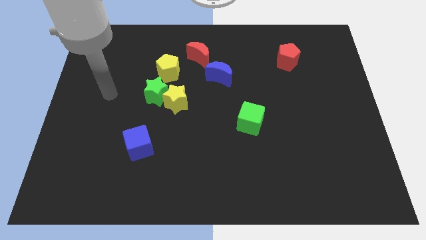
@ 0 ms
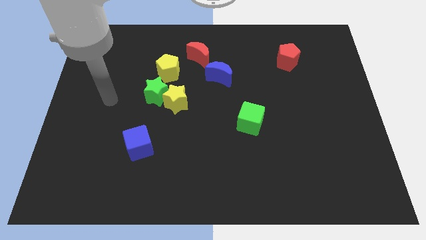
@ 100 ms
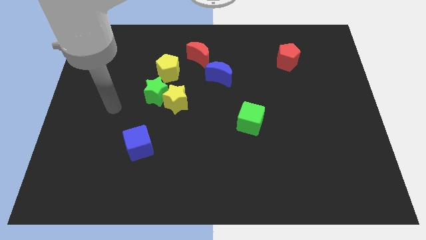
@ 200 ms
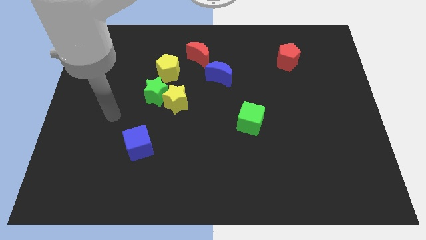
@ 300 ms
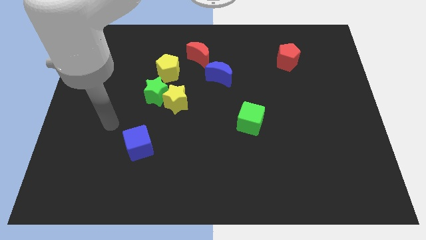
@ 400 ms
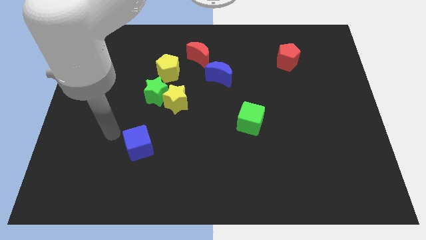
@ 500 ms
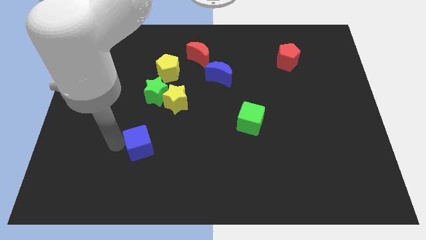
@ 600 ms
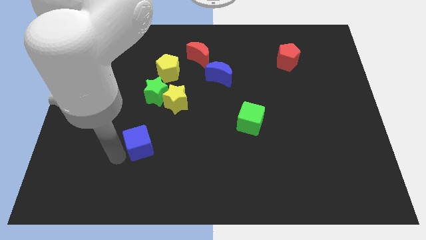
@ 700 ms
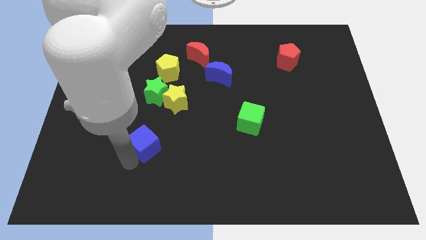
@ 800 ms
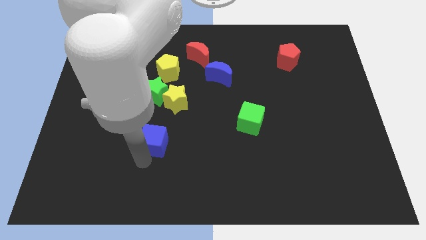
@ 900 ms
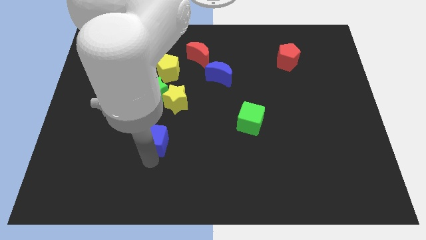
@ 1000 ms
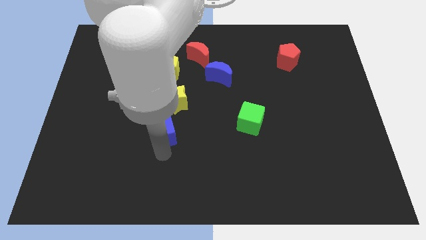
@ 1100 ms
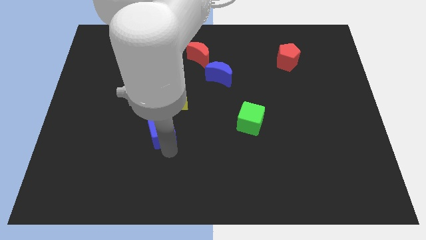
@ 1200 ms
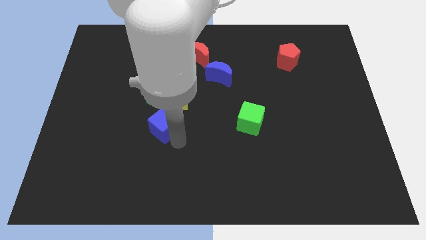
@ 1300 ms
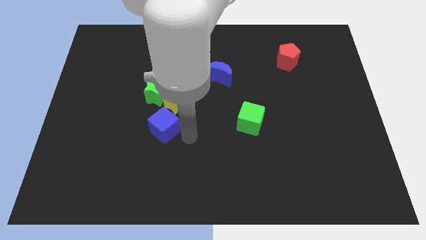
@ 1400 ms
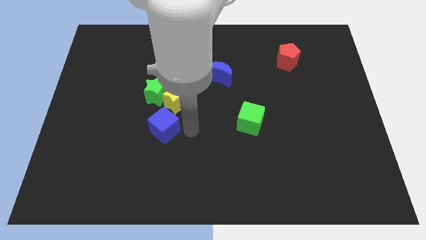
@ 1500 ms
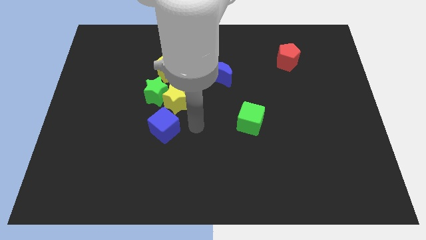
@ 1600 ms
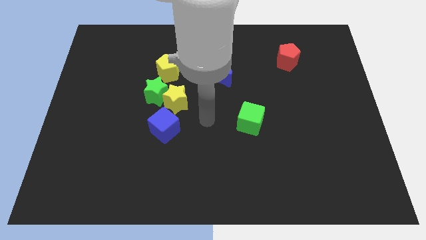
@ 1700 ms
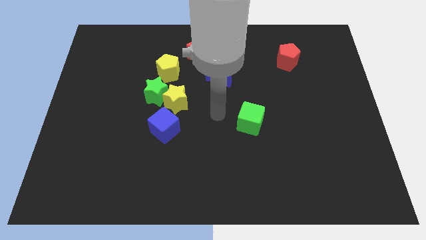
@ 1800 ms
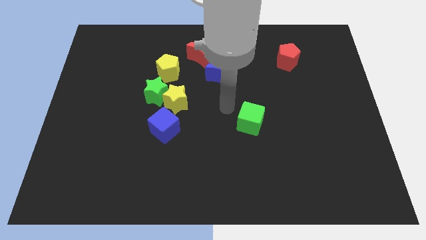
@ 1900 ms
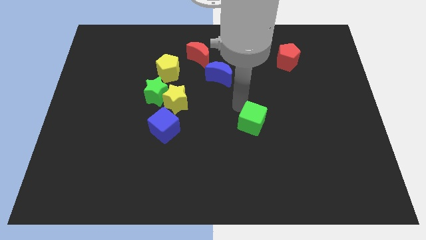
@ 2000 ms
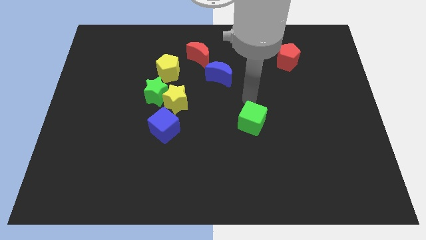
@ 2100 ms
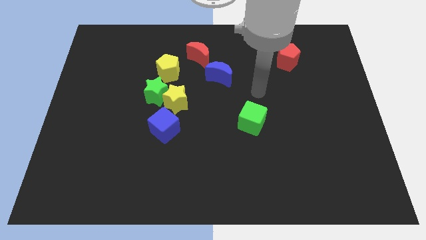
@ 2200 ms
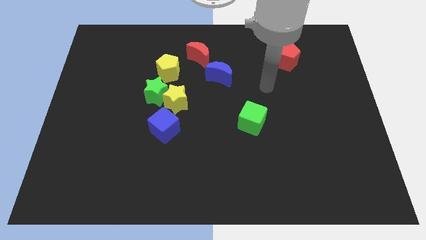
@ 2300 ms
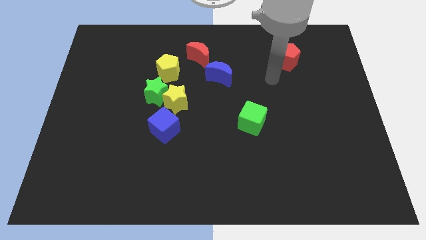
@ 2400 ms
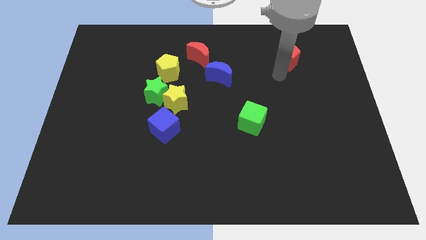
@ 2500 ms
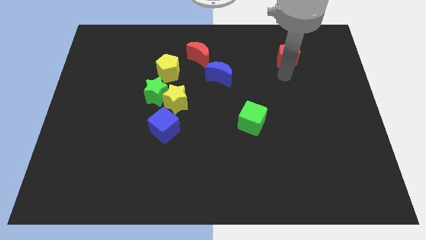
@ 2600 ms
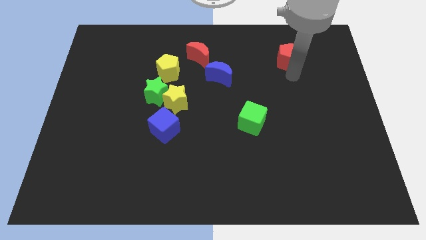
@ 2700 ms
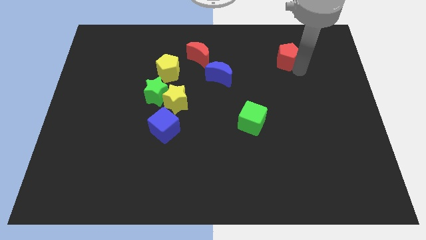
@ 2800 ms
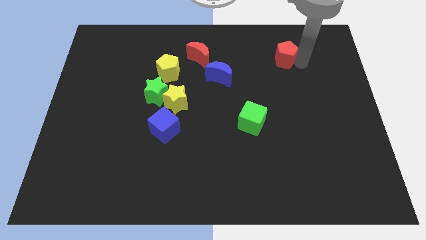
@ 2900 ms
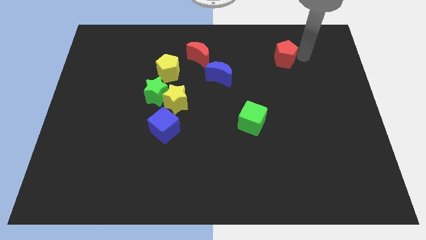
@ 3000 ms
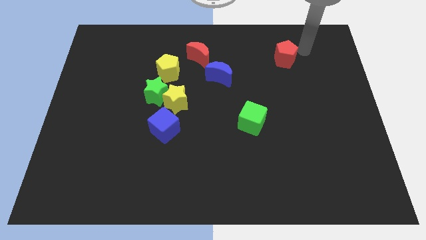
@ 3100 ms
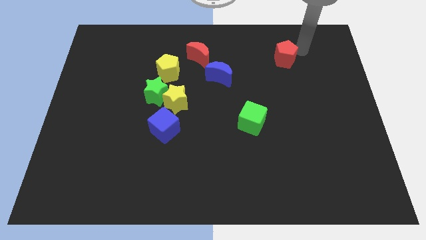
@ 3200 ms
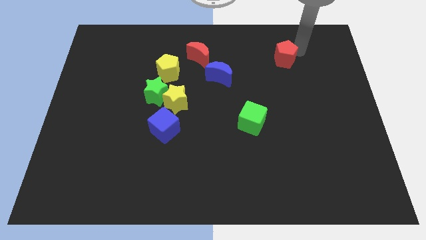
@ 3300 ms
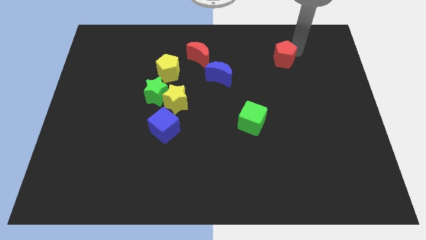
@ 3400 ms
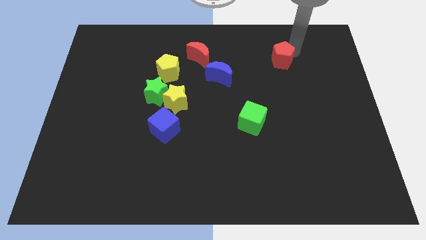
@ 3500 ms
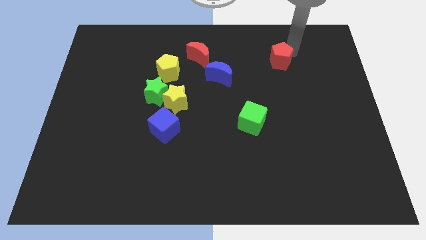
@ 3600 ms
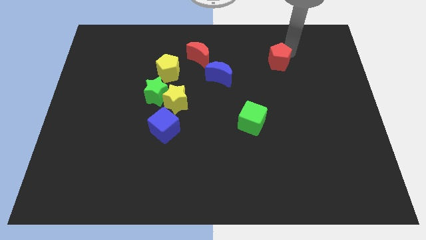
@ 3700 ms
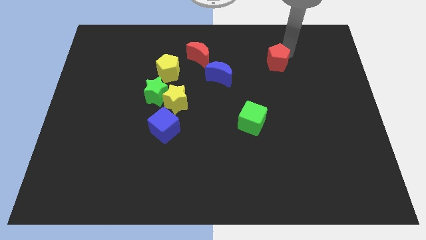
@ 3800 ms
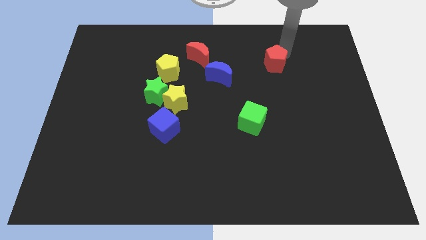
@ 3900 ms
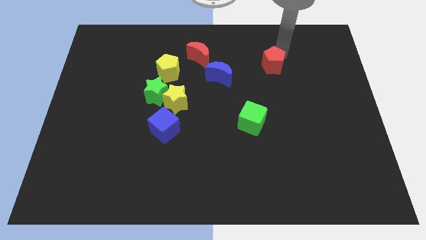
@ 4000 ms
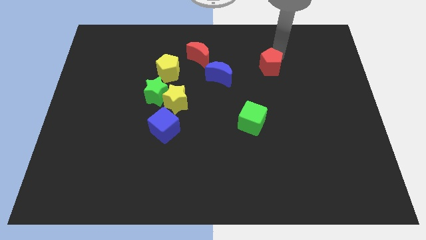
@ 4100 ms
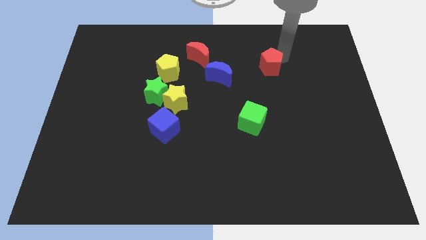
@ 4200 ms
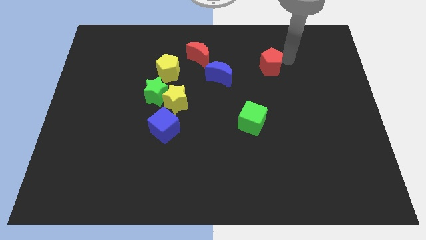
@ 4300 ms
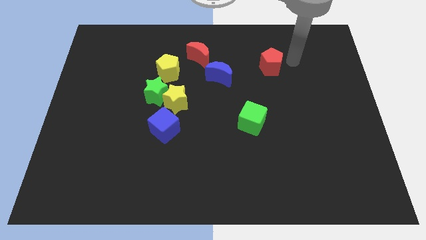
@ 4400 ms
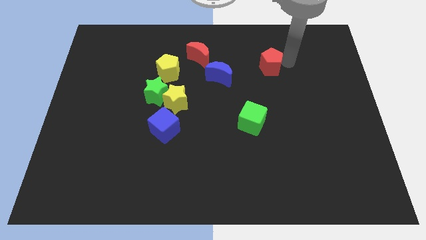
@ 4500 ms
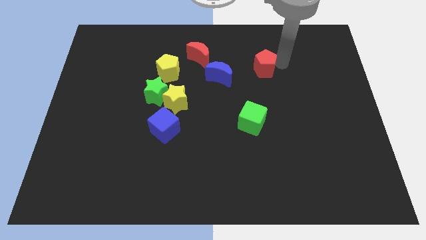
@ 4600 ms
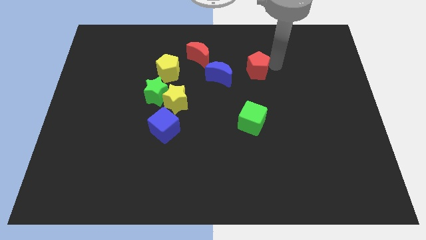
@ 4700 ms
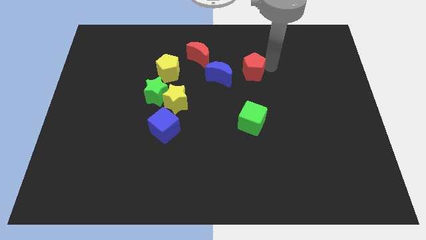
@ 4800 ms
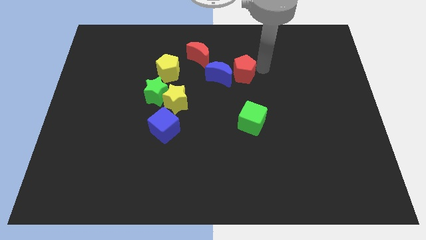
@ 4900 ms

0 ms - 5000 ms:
slide the red pentagon close to the blue moon

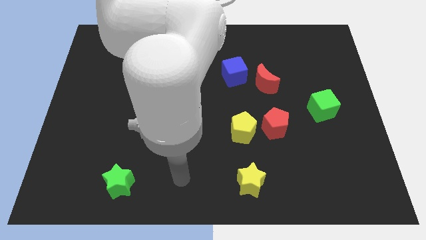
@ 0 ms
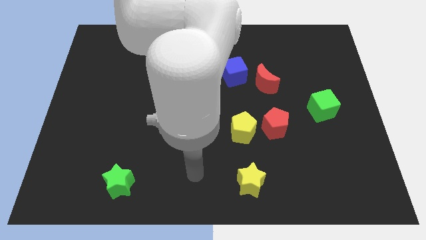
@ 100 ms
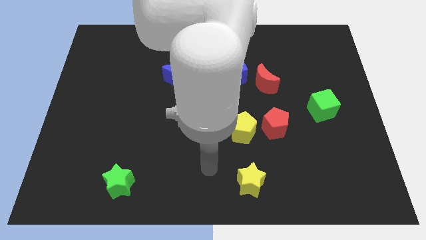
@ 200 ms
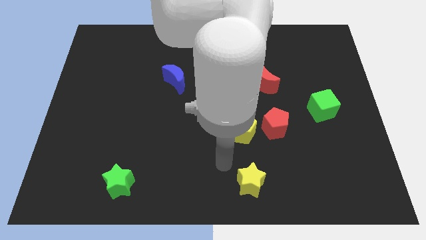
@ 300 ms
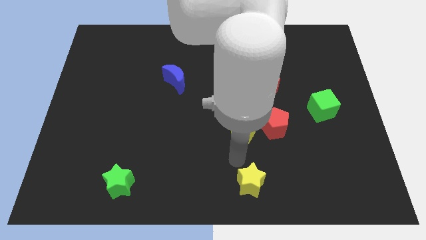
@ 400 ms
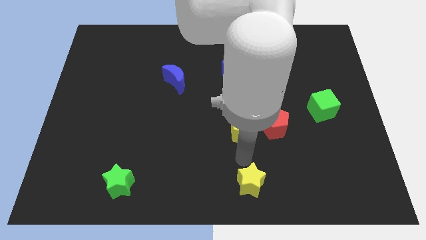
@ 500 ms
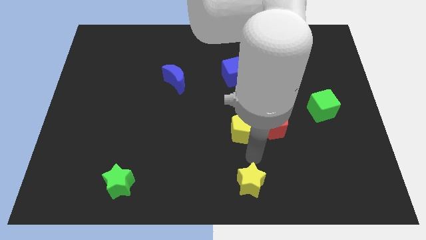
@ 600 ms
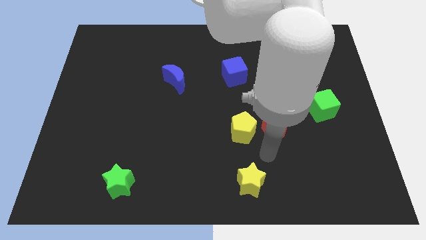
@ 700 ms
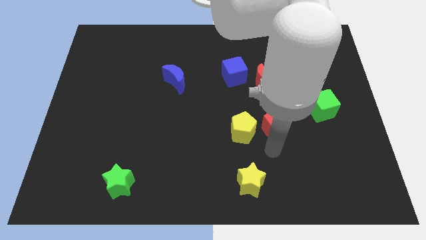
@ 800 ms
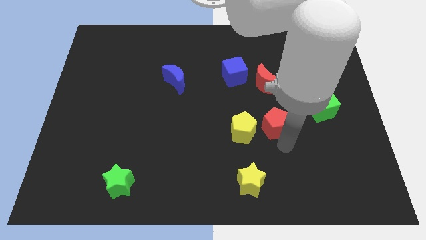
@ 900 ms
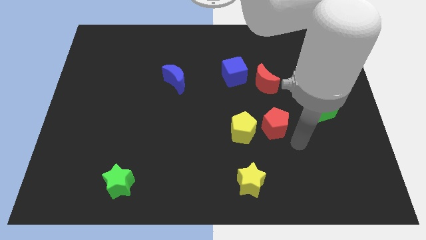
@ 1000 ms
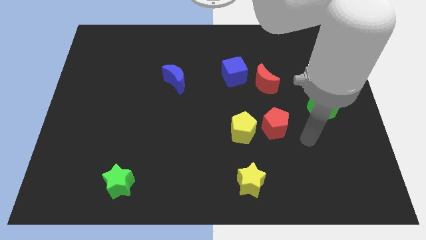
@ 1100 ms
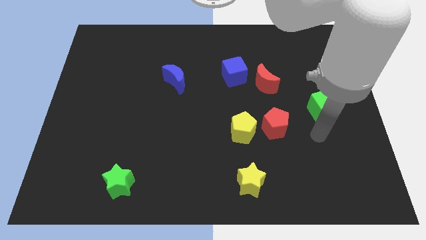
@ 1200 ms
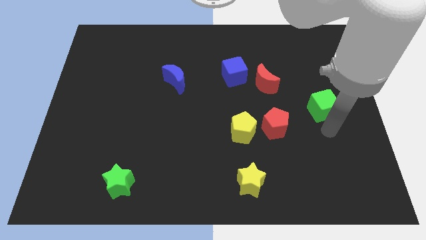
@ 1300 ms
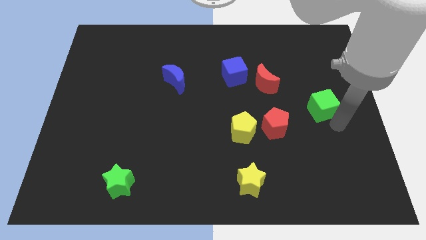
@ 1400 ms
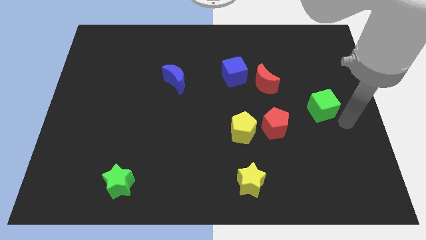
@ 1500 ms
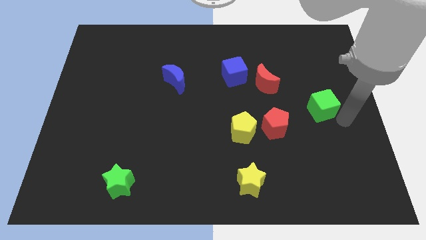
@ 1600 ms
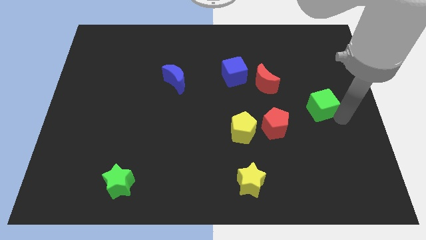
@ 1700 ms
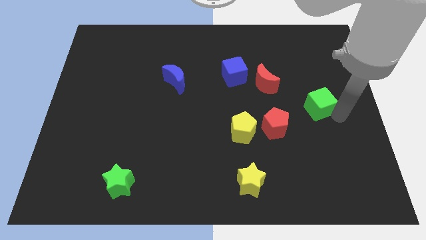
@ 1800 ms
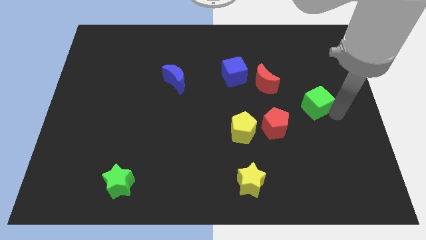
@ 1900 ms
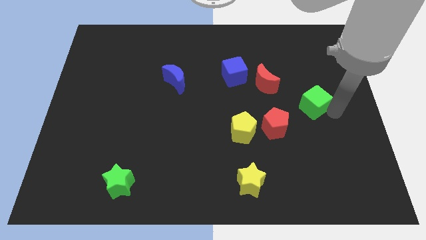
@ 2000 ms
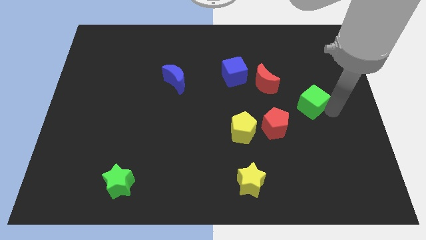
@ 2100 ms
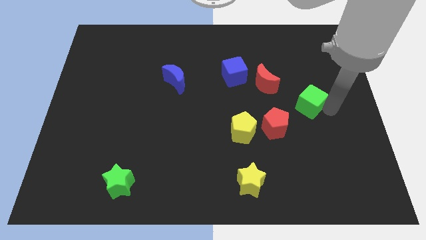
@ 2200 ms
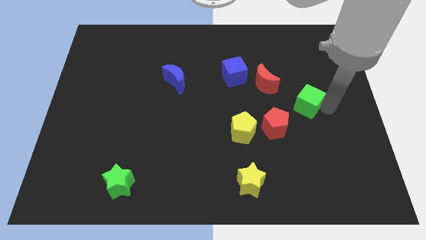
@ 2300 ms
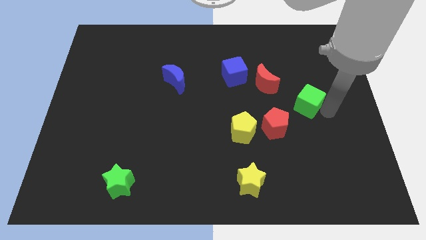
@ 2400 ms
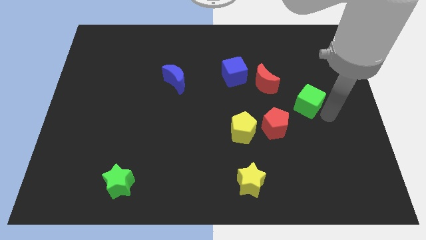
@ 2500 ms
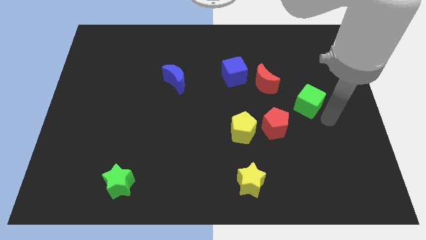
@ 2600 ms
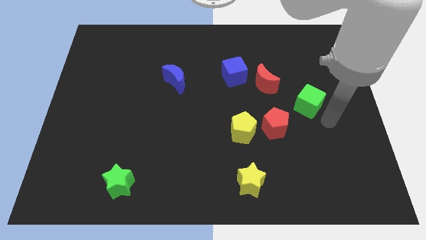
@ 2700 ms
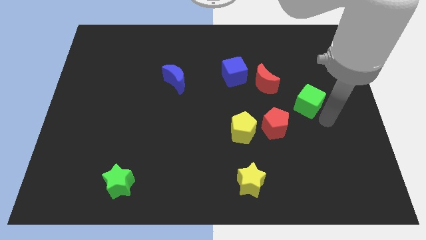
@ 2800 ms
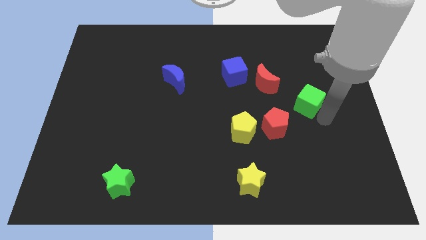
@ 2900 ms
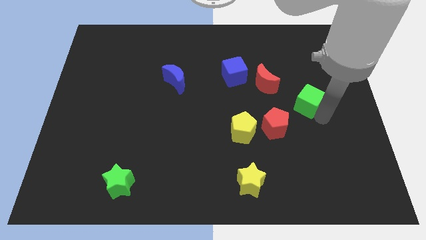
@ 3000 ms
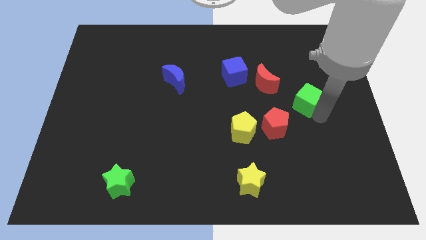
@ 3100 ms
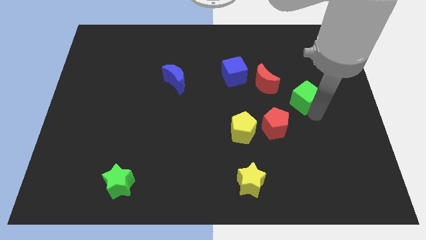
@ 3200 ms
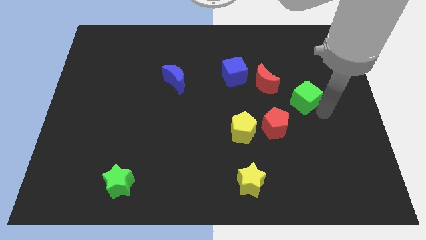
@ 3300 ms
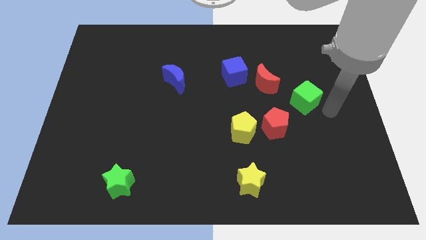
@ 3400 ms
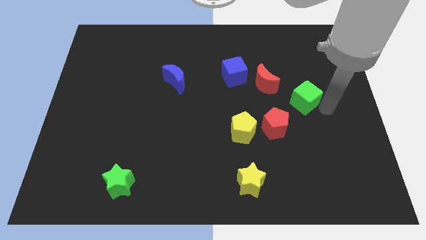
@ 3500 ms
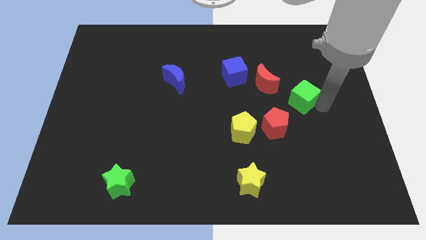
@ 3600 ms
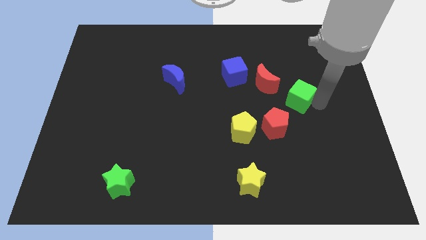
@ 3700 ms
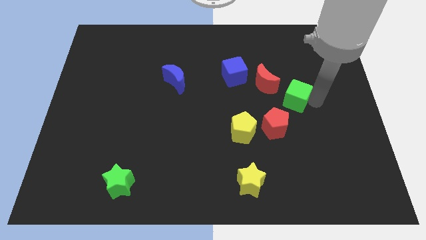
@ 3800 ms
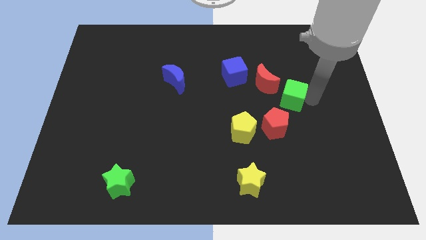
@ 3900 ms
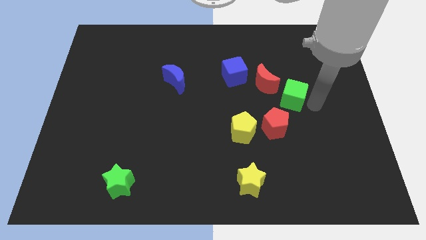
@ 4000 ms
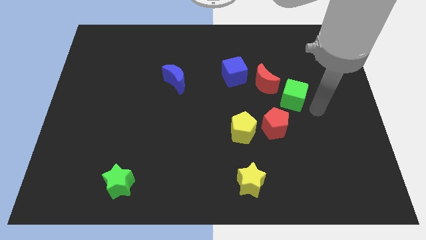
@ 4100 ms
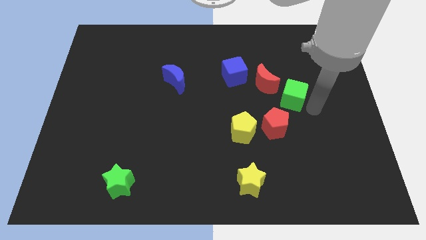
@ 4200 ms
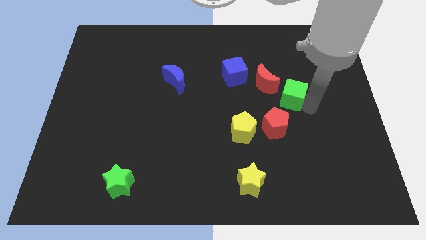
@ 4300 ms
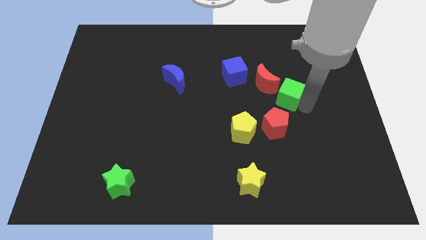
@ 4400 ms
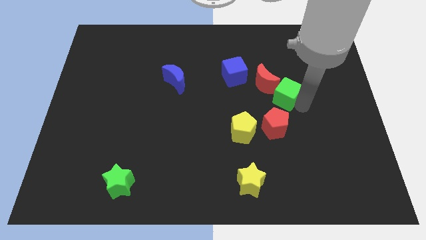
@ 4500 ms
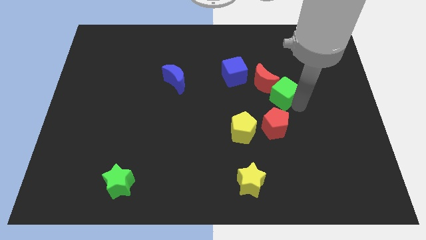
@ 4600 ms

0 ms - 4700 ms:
slide the green cube next to the red moon
